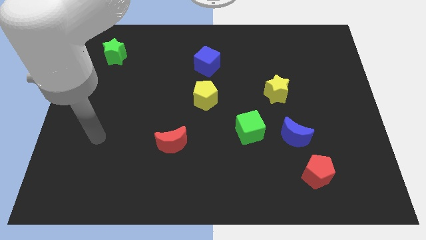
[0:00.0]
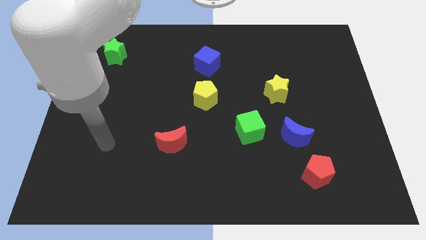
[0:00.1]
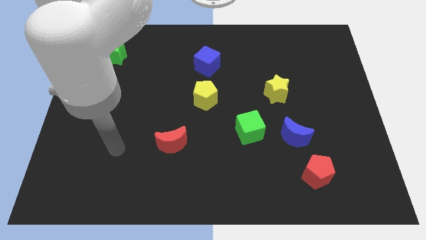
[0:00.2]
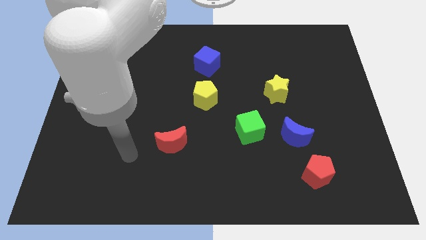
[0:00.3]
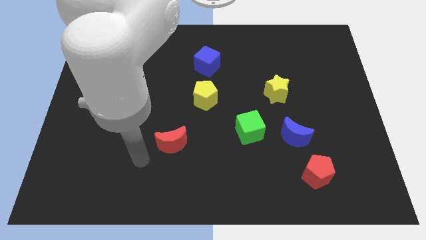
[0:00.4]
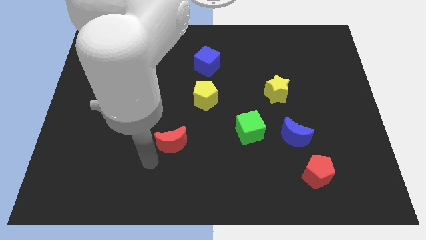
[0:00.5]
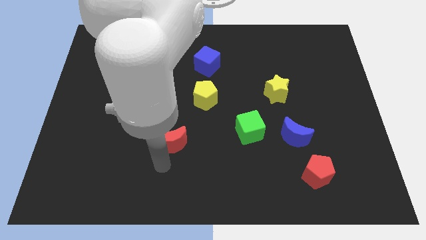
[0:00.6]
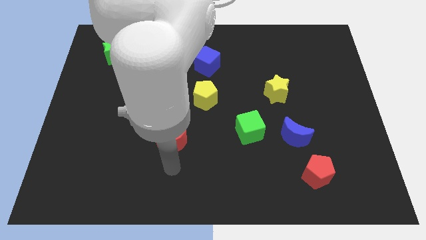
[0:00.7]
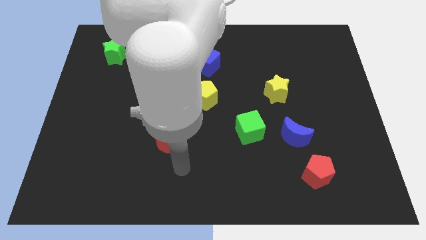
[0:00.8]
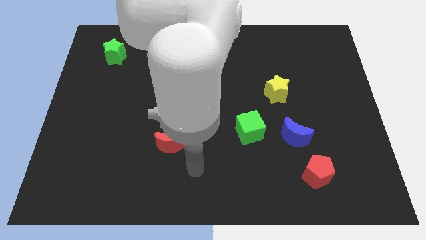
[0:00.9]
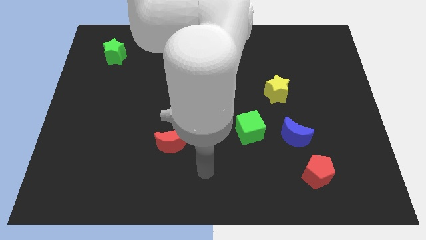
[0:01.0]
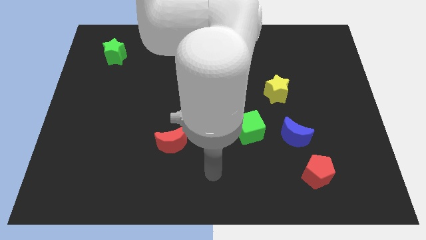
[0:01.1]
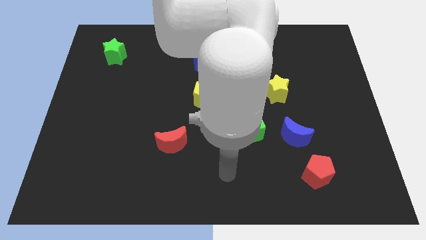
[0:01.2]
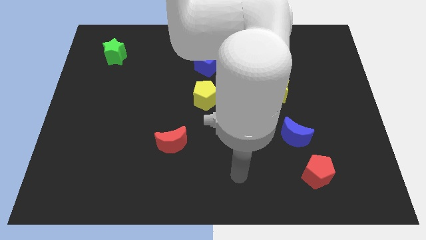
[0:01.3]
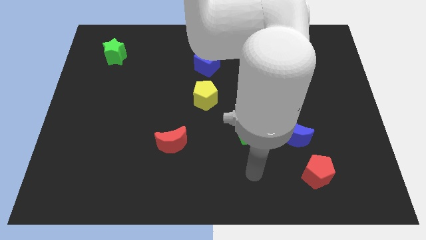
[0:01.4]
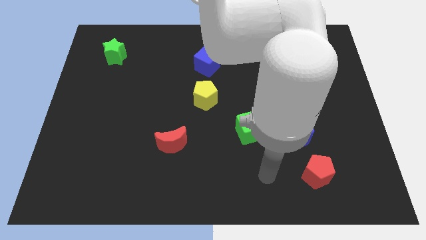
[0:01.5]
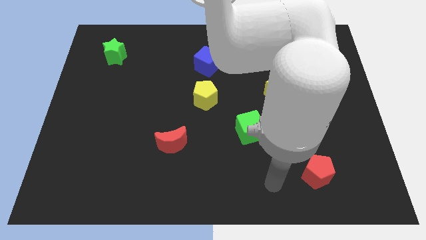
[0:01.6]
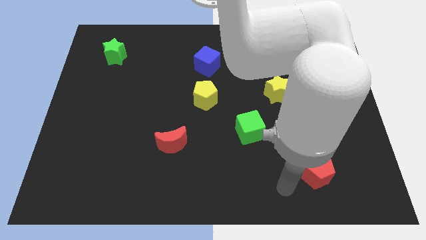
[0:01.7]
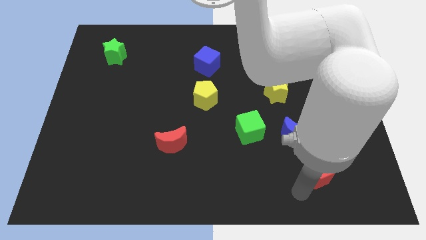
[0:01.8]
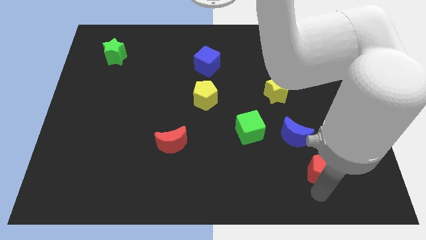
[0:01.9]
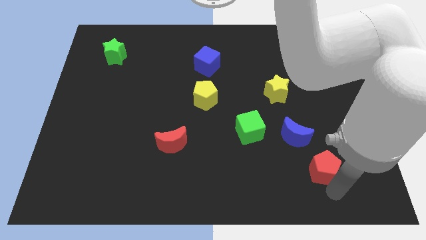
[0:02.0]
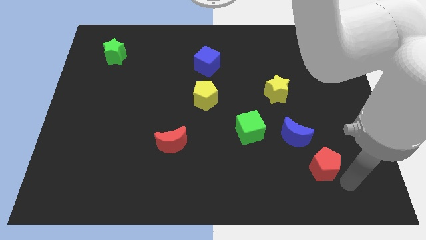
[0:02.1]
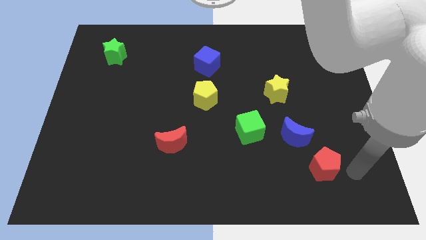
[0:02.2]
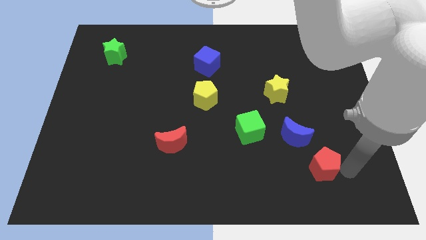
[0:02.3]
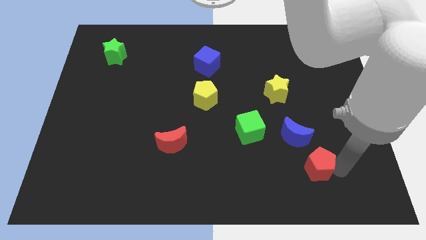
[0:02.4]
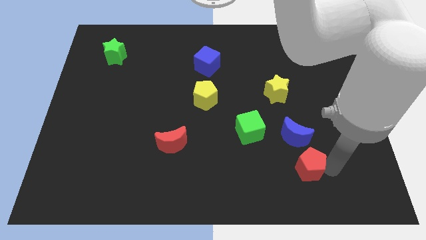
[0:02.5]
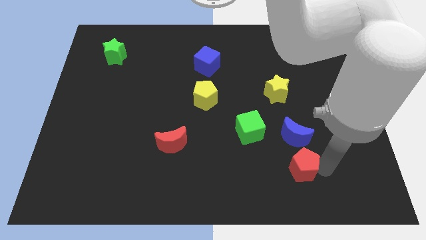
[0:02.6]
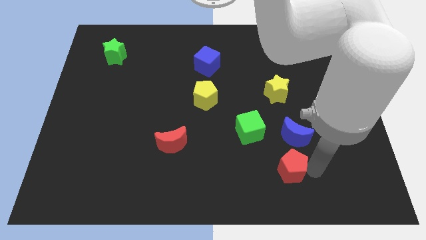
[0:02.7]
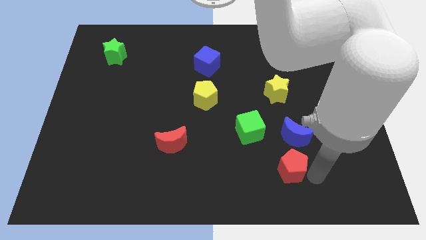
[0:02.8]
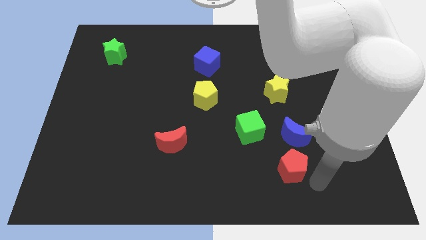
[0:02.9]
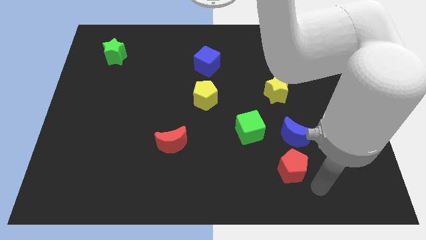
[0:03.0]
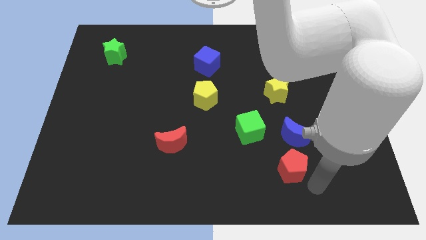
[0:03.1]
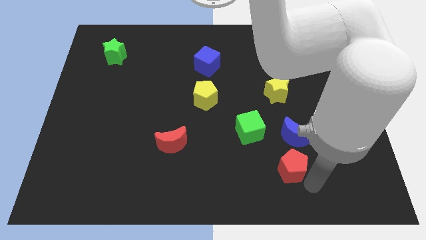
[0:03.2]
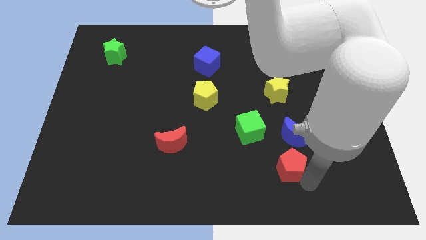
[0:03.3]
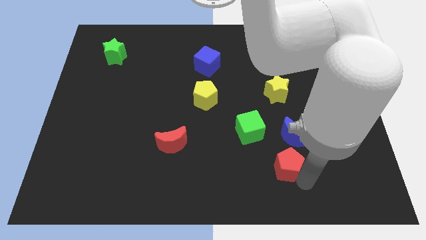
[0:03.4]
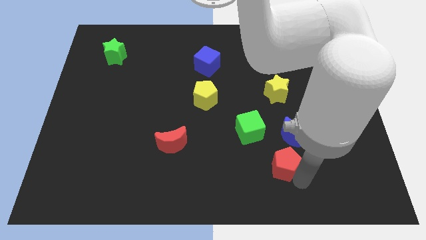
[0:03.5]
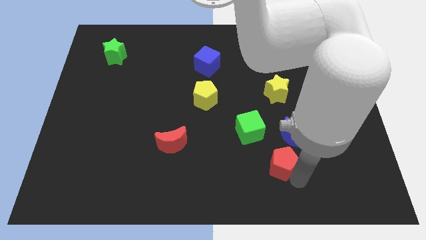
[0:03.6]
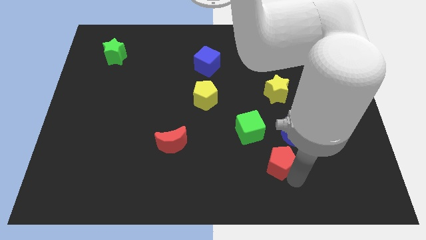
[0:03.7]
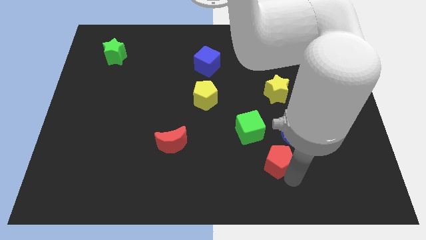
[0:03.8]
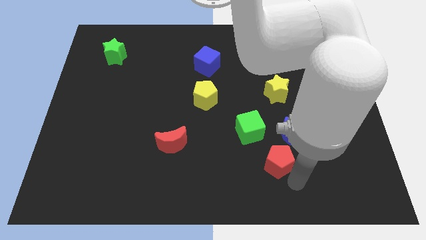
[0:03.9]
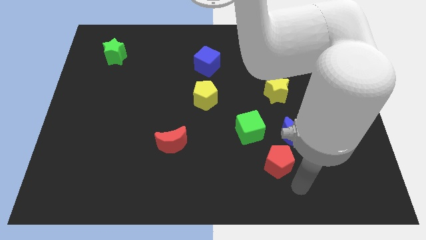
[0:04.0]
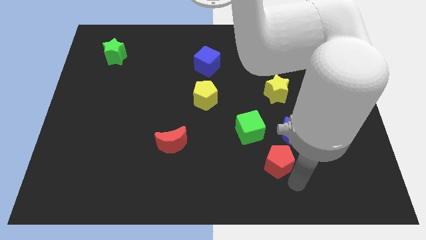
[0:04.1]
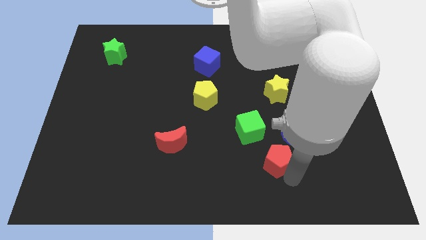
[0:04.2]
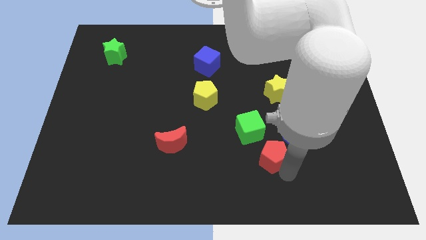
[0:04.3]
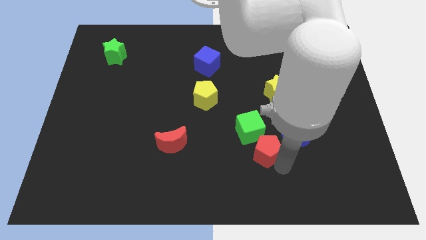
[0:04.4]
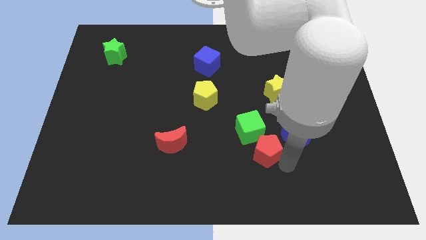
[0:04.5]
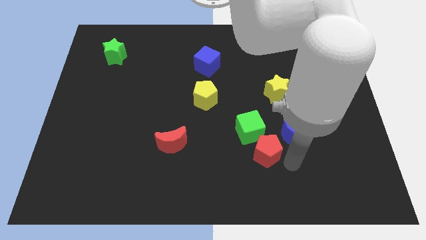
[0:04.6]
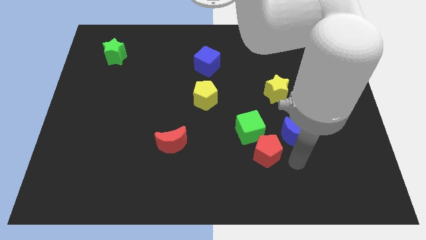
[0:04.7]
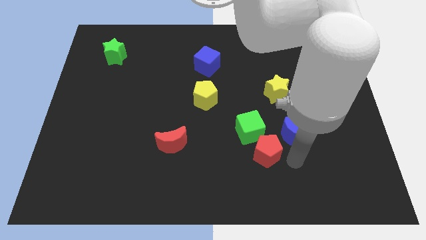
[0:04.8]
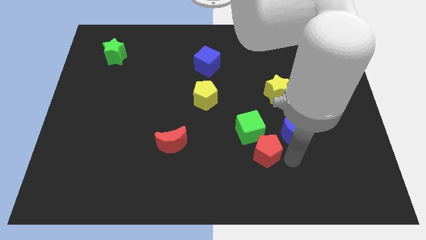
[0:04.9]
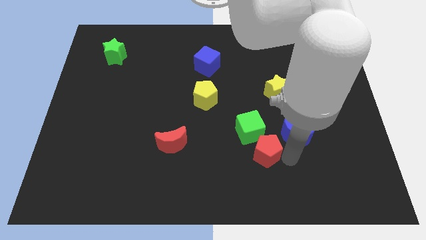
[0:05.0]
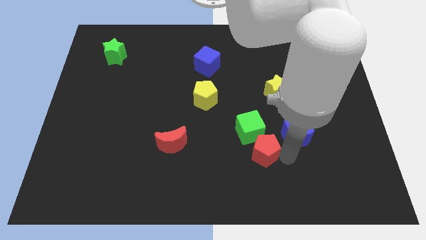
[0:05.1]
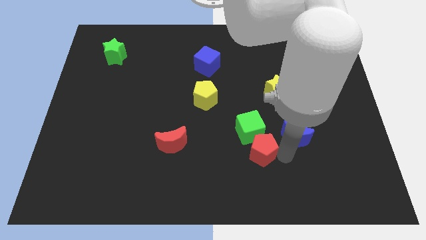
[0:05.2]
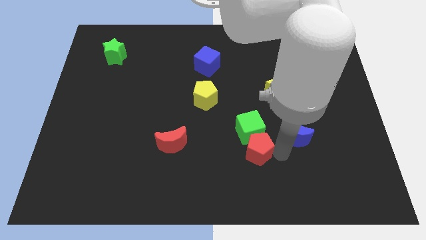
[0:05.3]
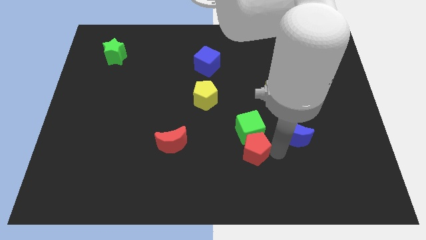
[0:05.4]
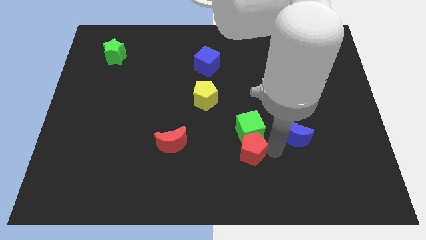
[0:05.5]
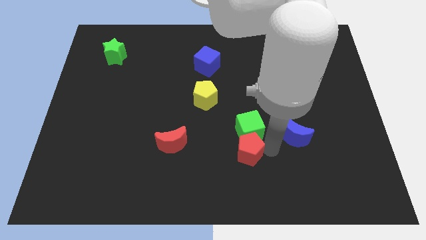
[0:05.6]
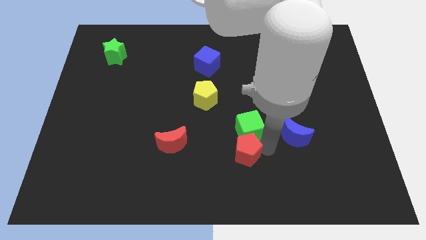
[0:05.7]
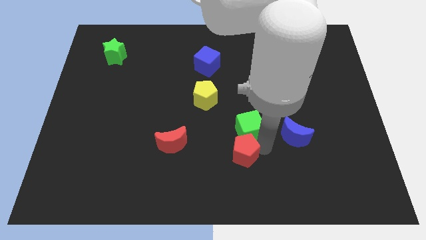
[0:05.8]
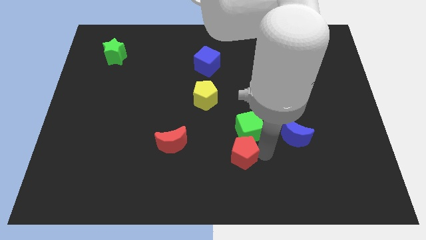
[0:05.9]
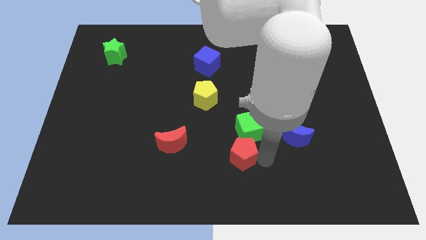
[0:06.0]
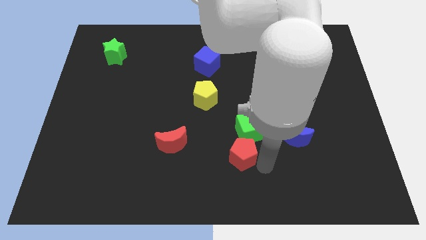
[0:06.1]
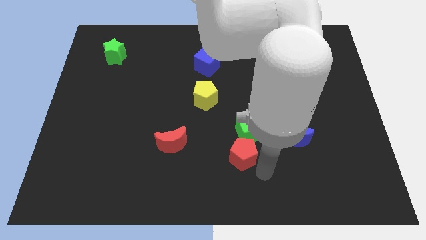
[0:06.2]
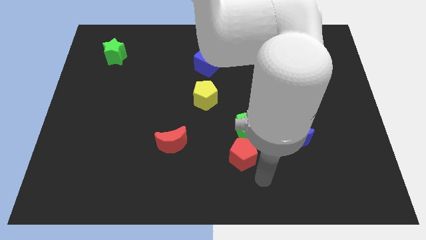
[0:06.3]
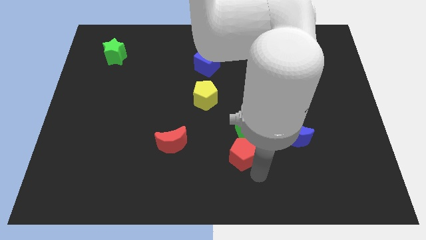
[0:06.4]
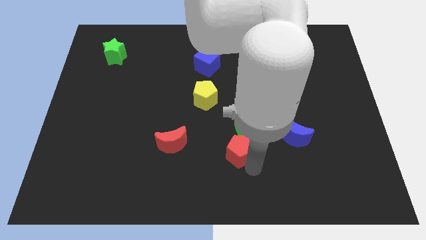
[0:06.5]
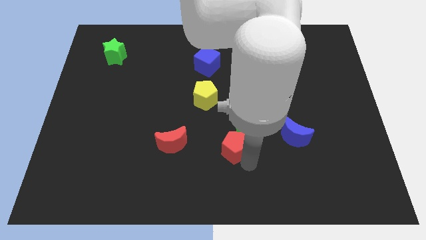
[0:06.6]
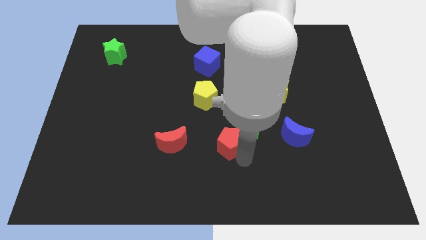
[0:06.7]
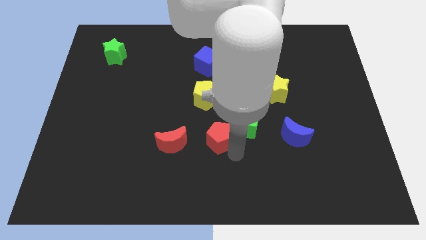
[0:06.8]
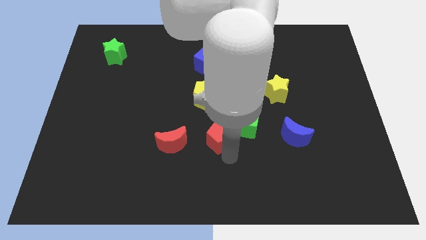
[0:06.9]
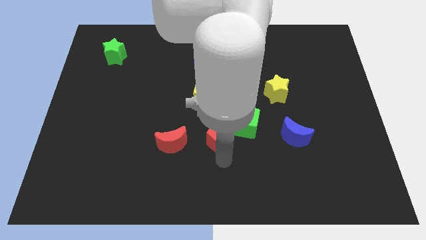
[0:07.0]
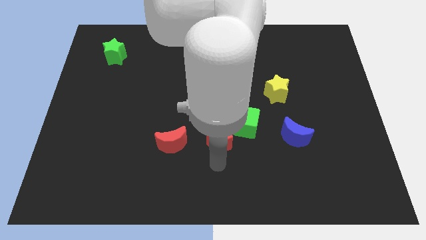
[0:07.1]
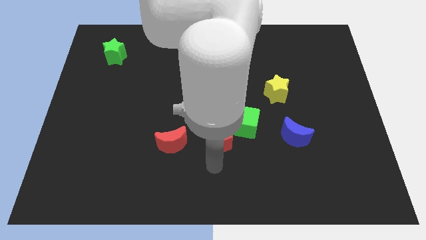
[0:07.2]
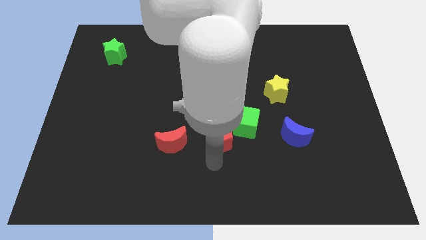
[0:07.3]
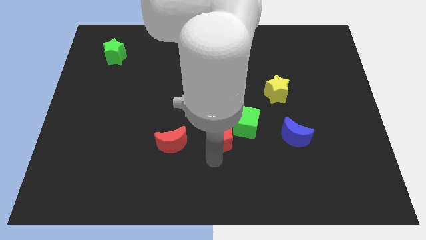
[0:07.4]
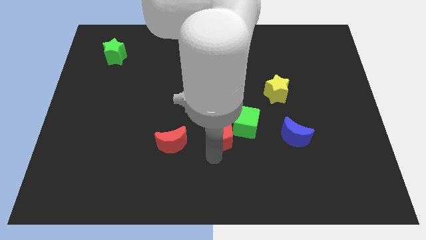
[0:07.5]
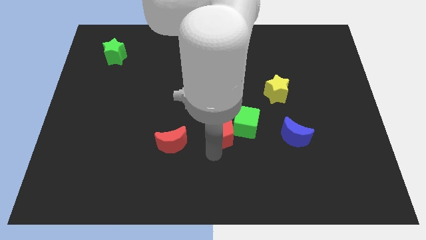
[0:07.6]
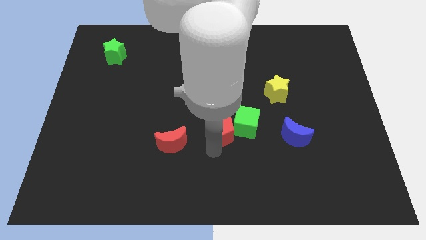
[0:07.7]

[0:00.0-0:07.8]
move the red pentagon to the bottom right side of the yellow pentagon
